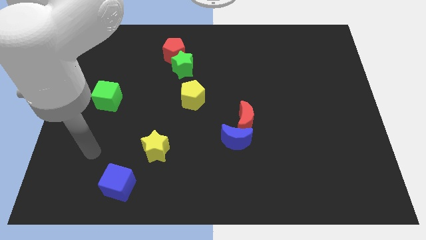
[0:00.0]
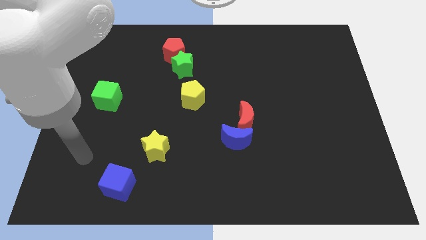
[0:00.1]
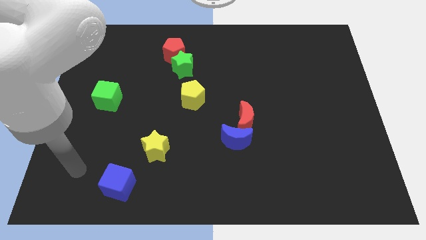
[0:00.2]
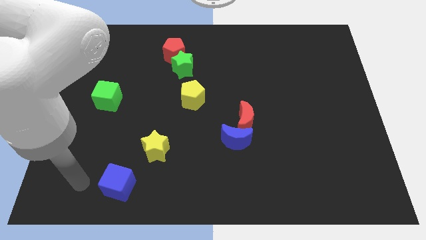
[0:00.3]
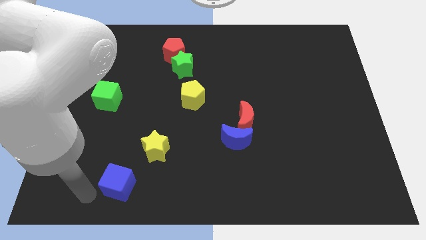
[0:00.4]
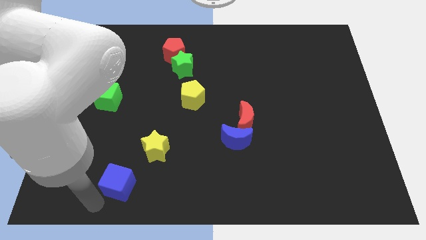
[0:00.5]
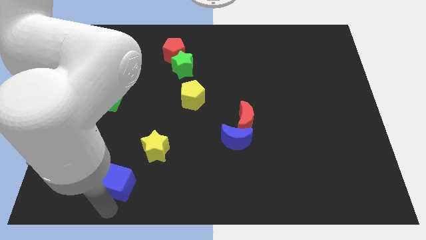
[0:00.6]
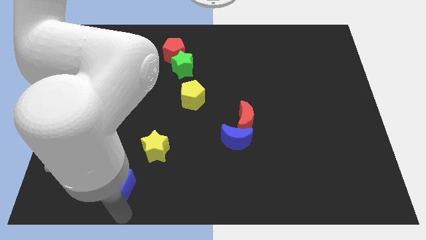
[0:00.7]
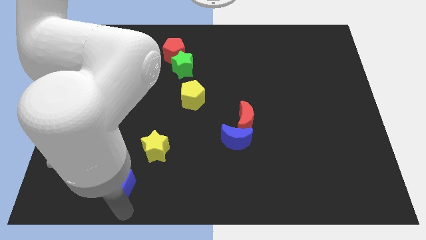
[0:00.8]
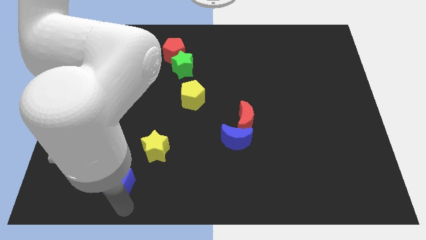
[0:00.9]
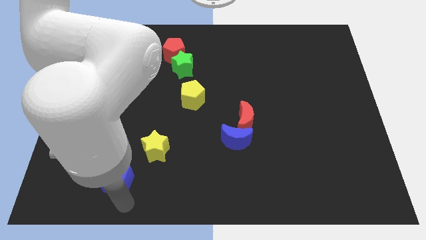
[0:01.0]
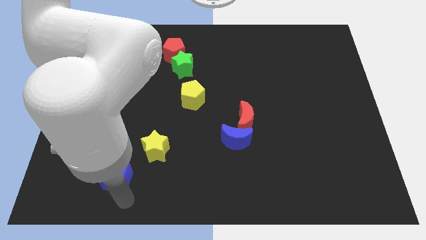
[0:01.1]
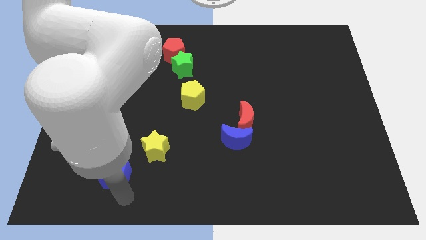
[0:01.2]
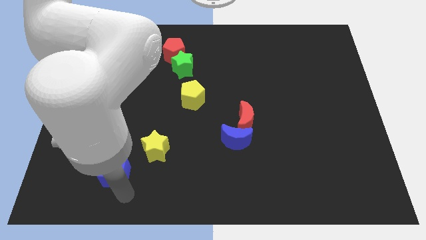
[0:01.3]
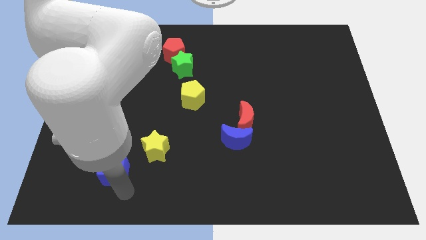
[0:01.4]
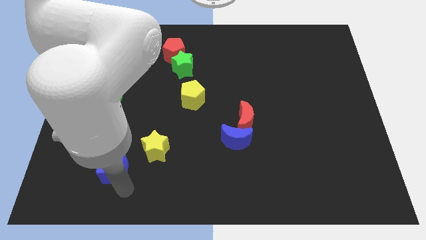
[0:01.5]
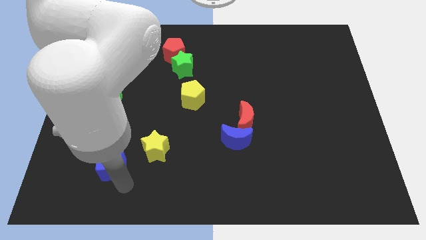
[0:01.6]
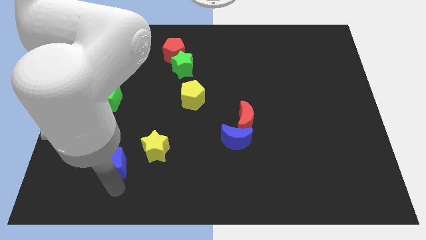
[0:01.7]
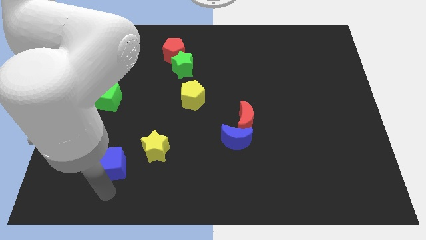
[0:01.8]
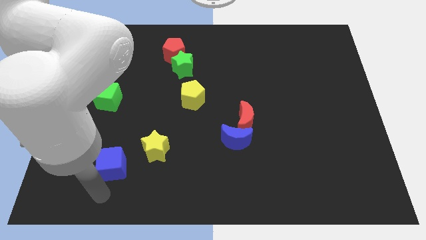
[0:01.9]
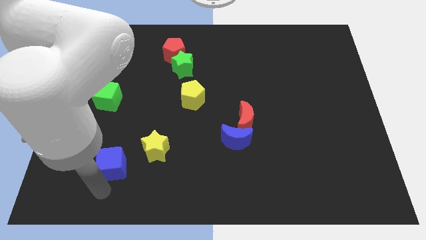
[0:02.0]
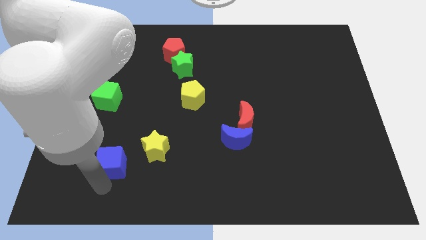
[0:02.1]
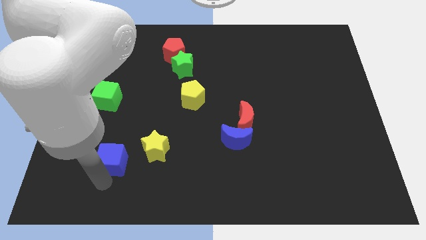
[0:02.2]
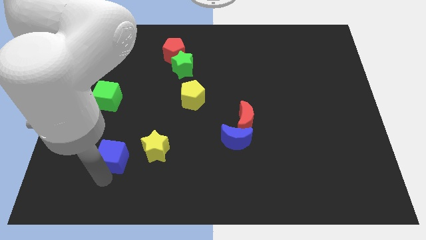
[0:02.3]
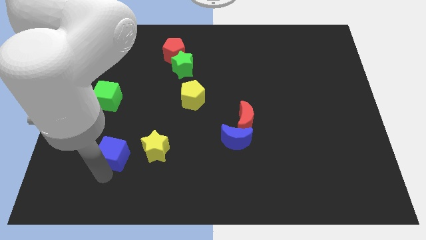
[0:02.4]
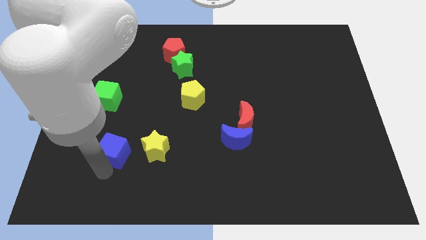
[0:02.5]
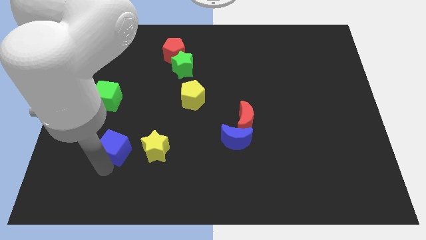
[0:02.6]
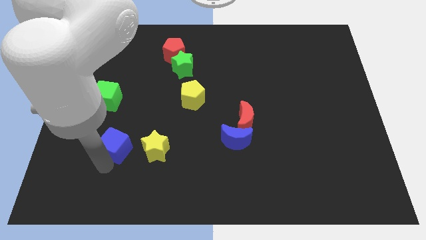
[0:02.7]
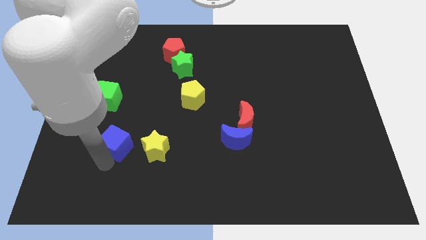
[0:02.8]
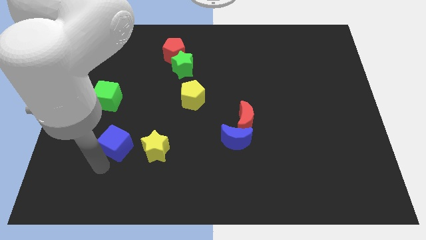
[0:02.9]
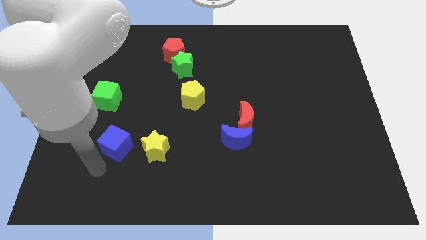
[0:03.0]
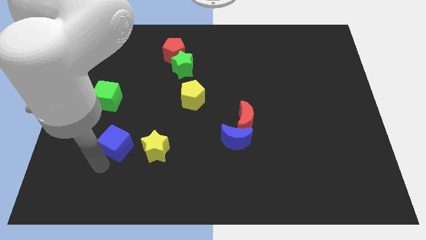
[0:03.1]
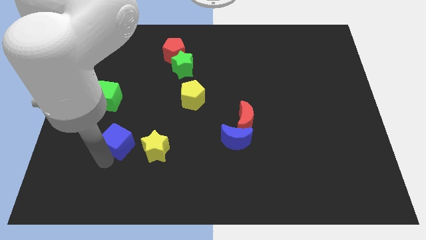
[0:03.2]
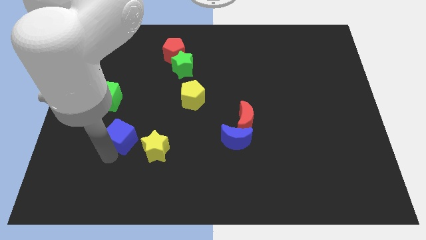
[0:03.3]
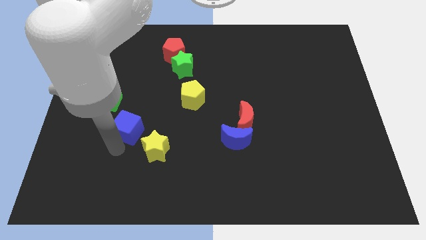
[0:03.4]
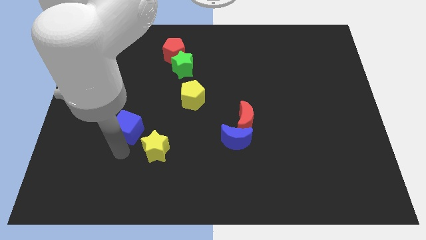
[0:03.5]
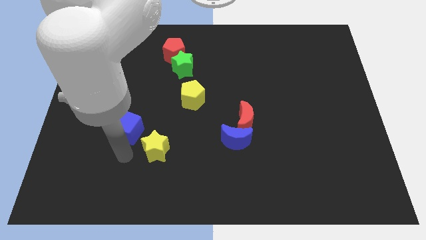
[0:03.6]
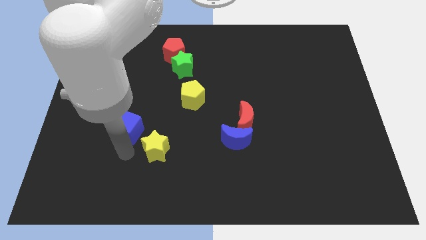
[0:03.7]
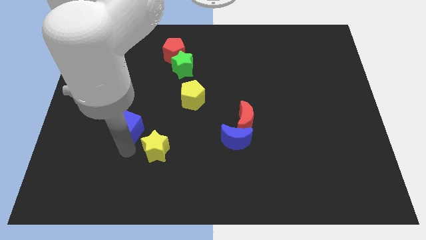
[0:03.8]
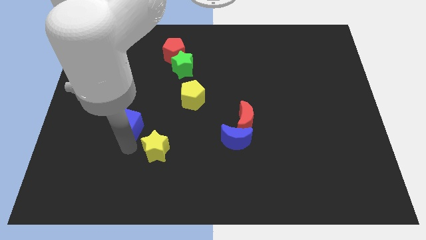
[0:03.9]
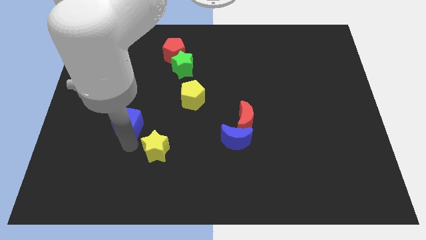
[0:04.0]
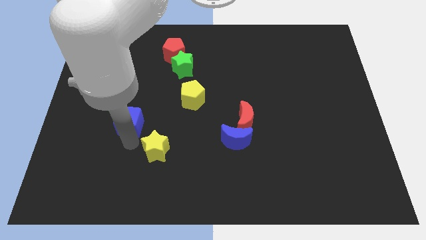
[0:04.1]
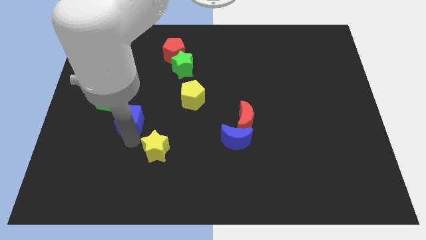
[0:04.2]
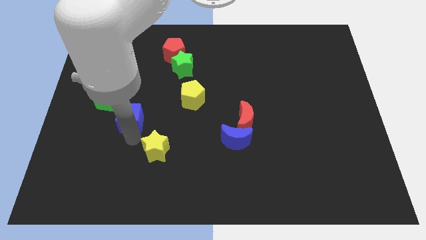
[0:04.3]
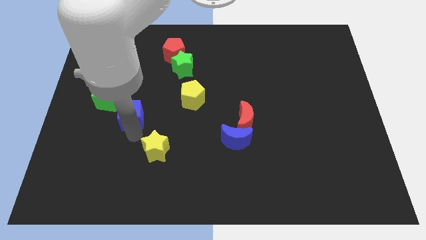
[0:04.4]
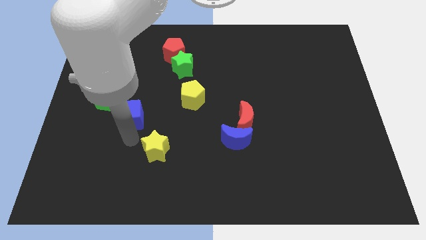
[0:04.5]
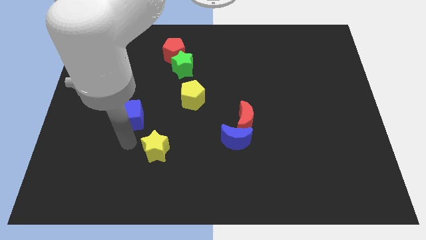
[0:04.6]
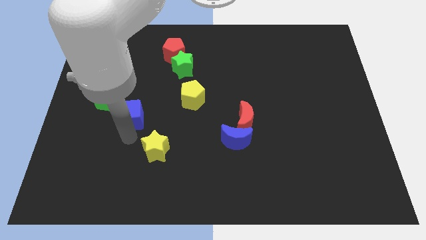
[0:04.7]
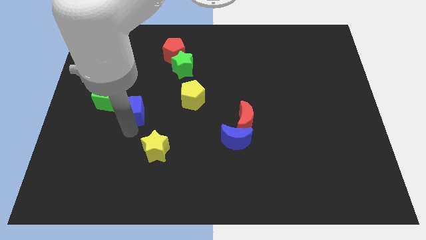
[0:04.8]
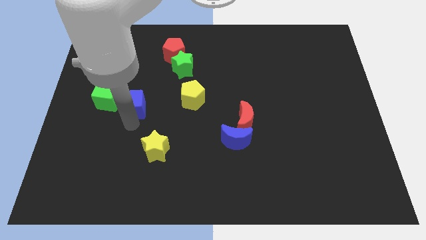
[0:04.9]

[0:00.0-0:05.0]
move the blue cube up

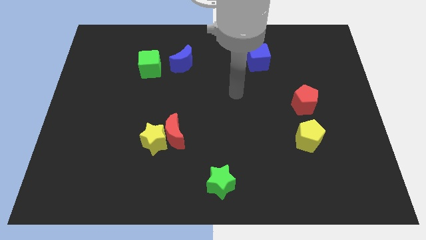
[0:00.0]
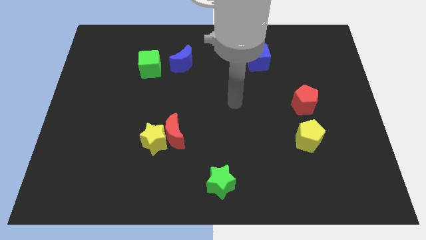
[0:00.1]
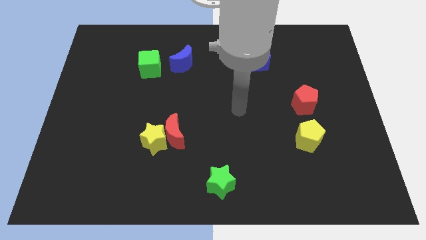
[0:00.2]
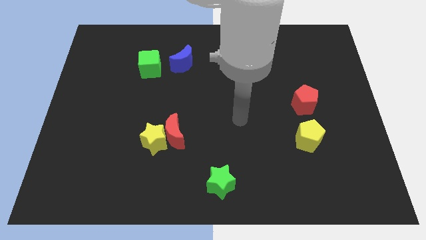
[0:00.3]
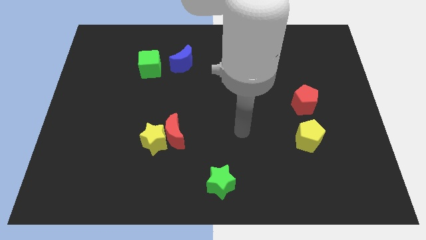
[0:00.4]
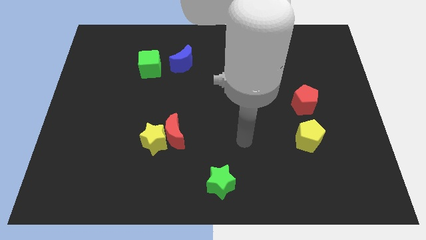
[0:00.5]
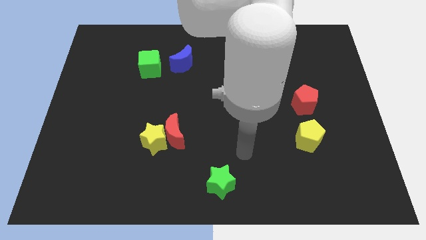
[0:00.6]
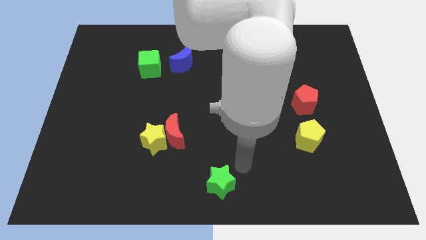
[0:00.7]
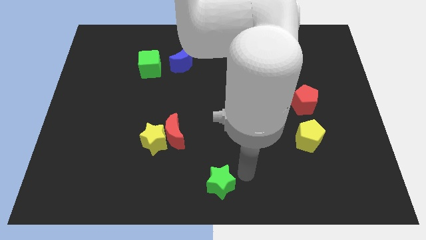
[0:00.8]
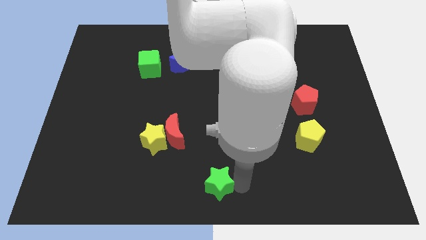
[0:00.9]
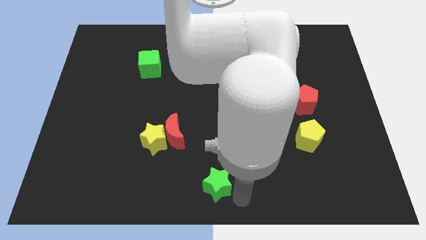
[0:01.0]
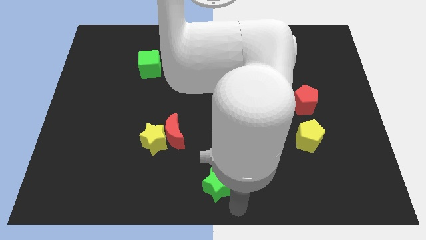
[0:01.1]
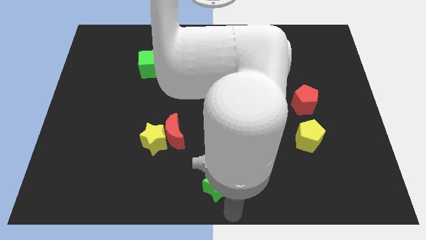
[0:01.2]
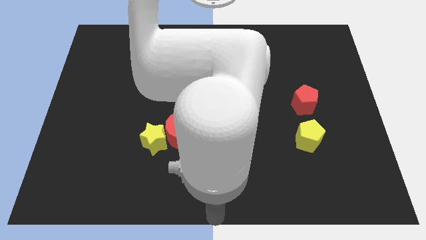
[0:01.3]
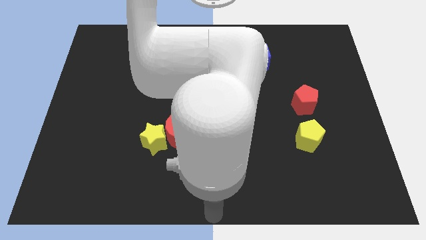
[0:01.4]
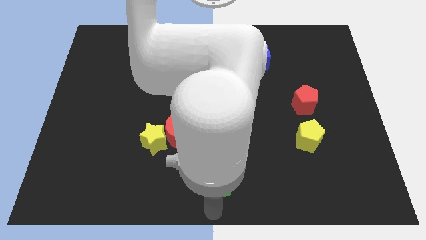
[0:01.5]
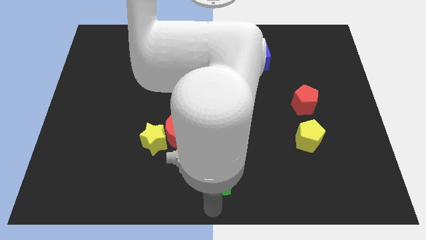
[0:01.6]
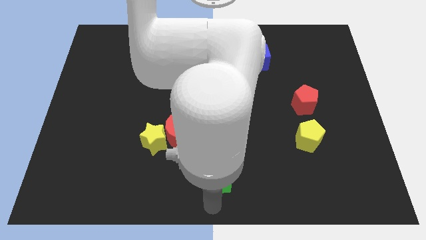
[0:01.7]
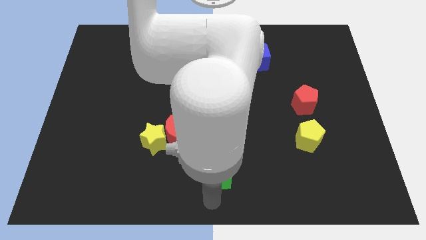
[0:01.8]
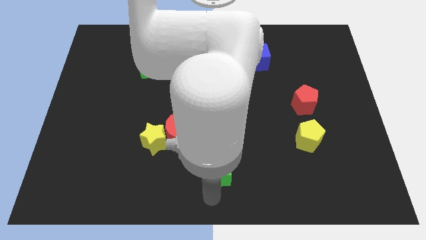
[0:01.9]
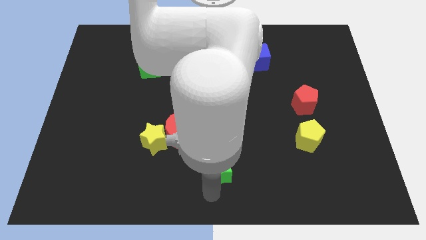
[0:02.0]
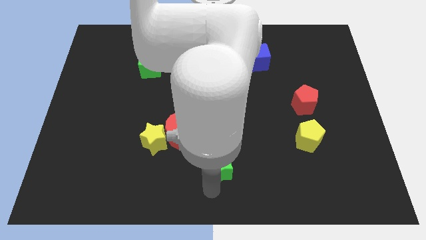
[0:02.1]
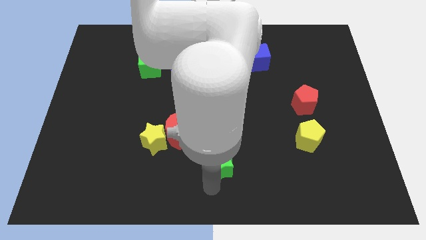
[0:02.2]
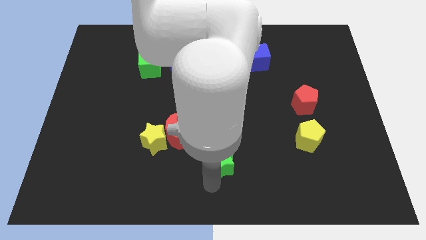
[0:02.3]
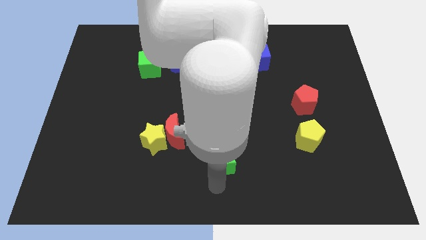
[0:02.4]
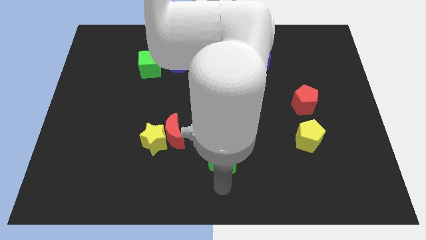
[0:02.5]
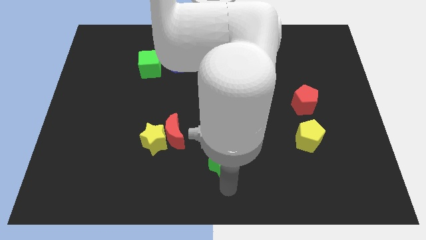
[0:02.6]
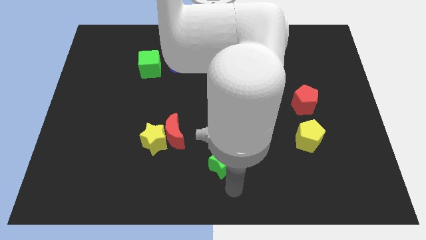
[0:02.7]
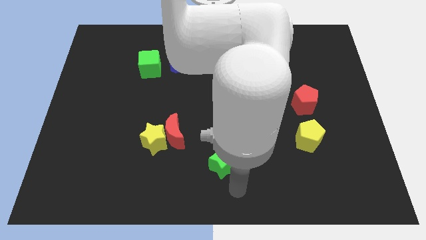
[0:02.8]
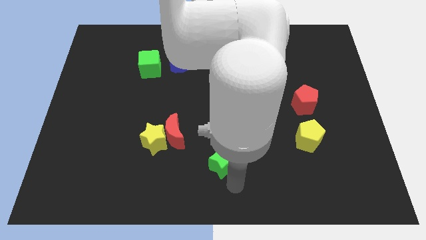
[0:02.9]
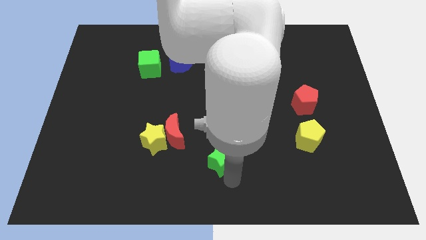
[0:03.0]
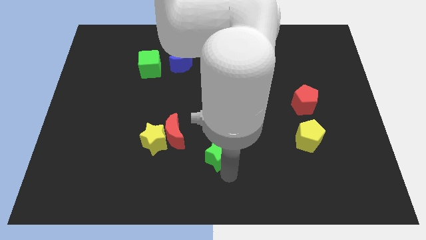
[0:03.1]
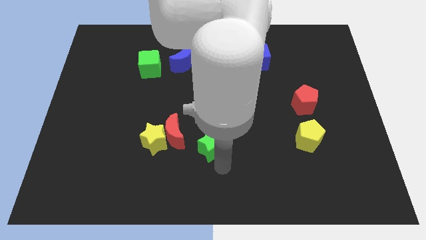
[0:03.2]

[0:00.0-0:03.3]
push the green star a little bit upwards
